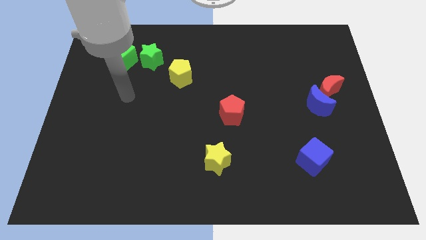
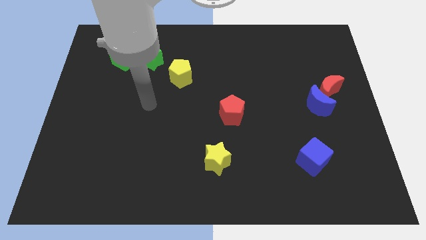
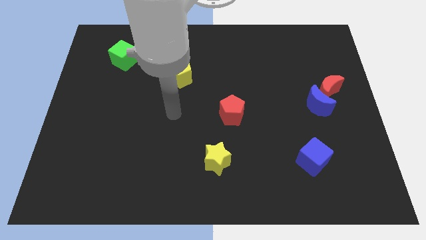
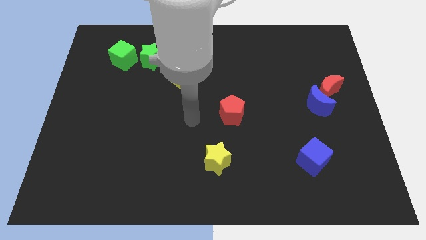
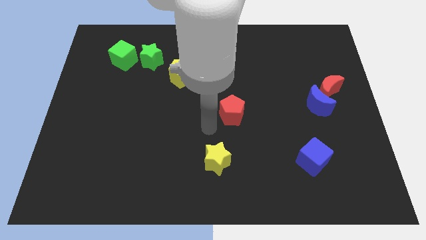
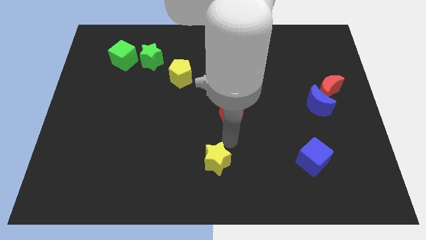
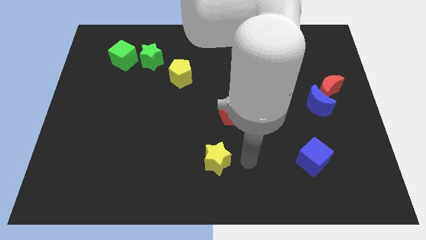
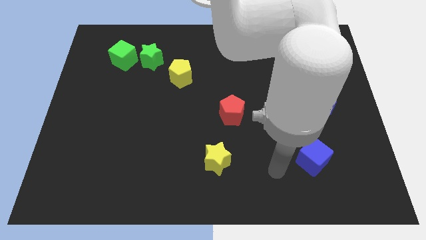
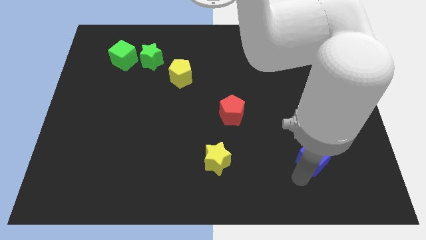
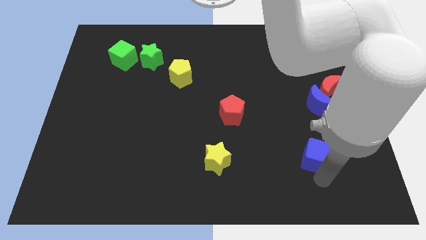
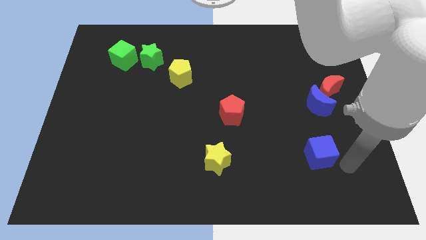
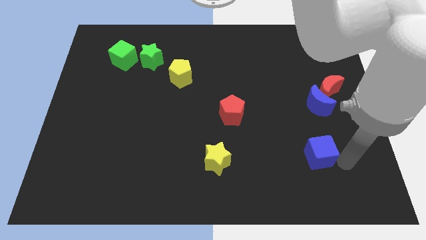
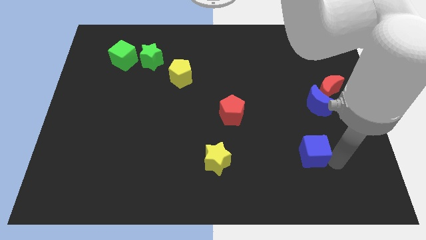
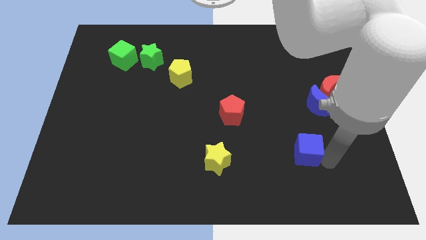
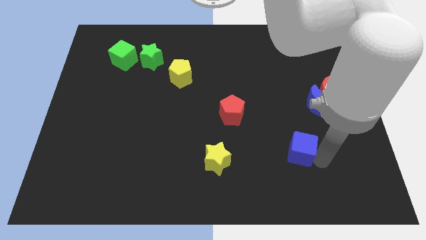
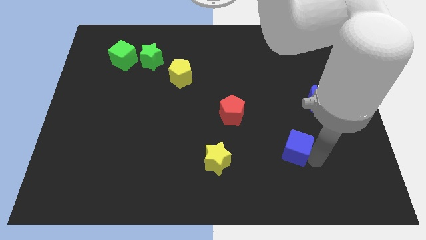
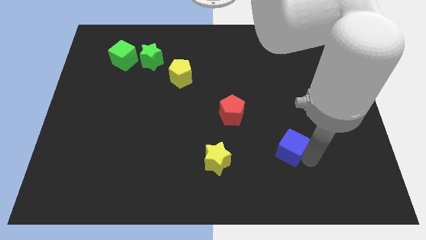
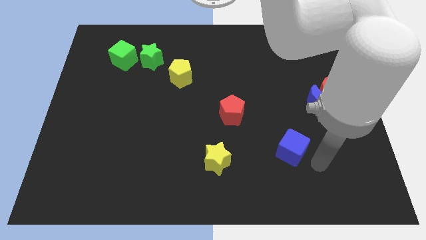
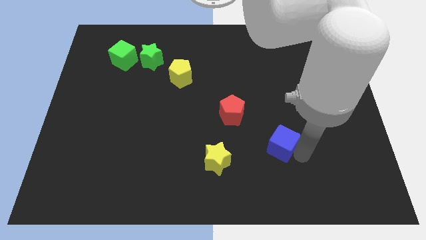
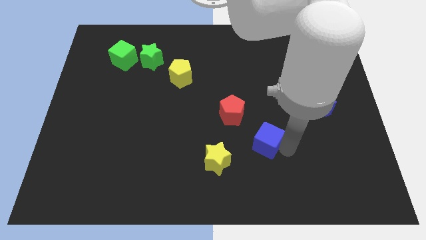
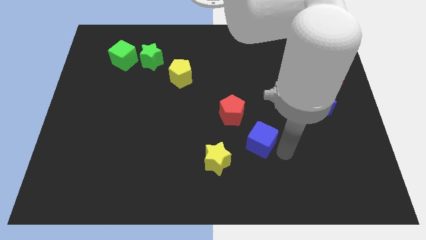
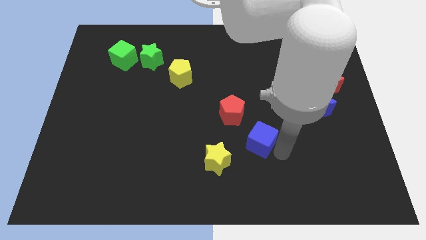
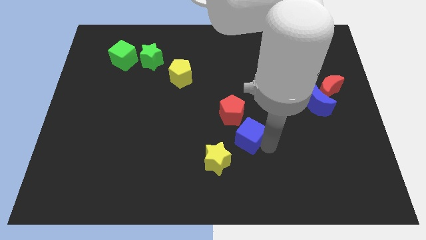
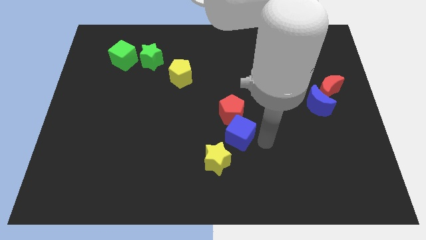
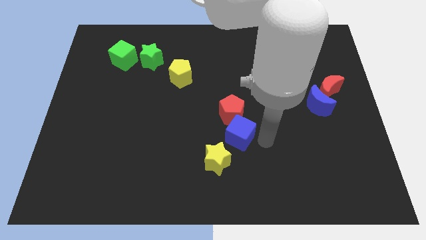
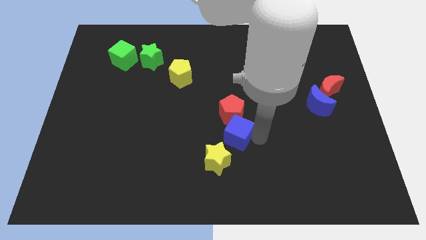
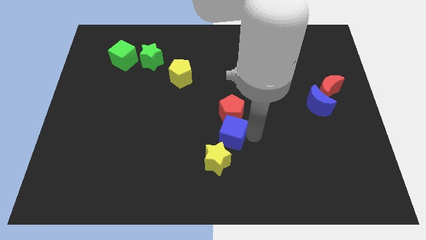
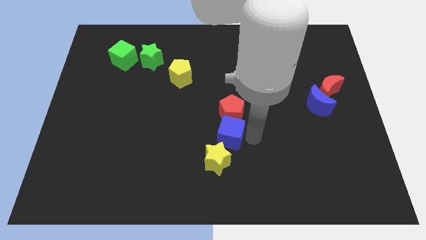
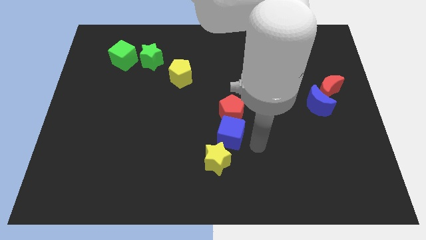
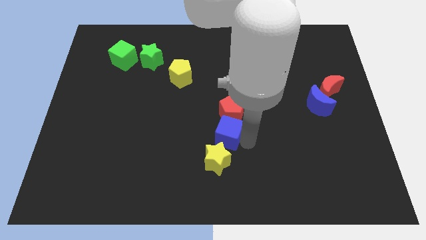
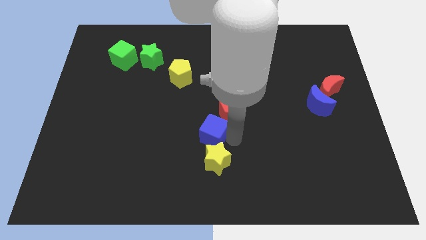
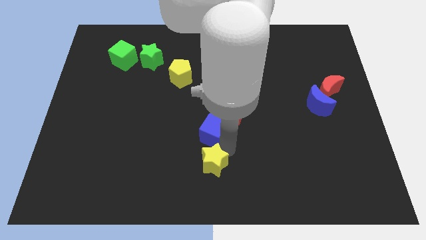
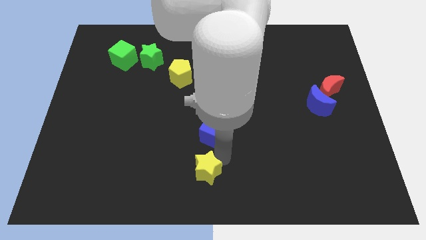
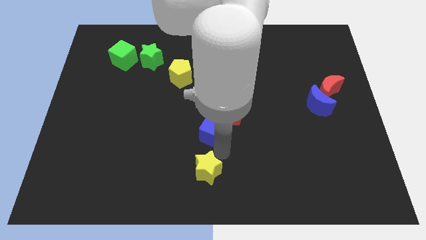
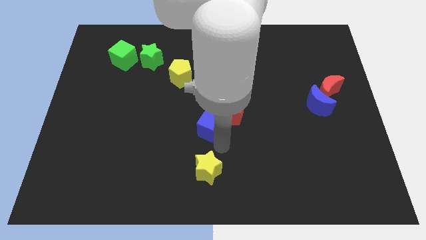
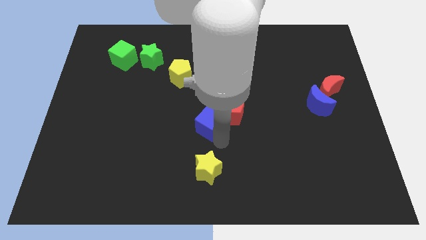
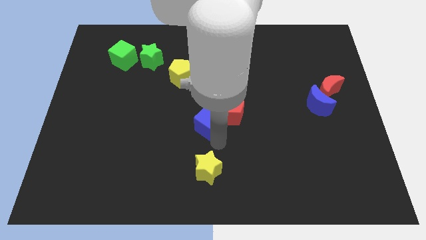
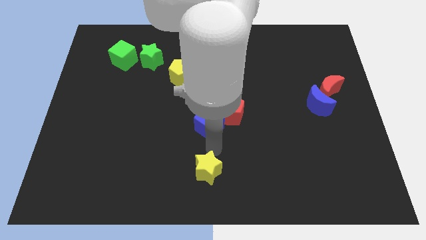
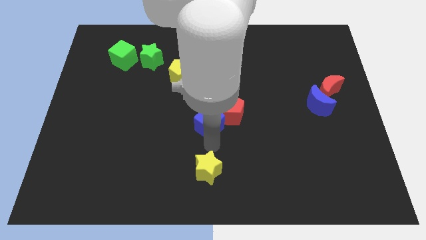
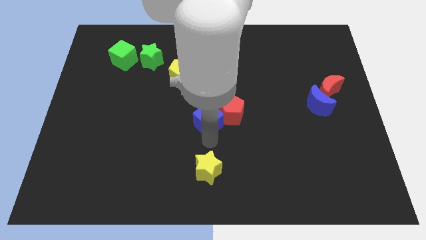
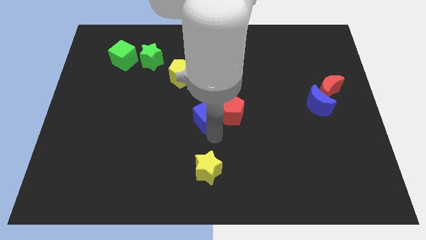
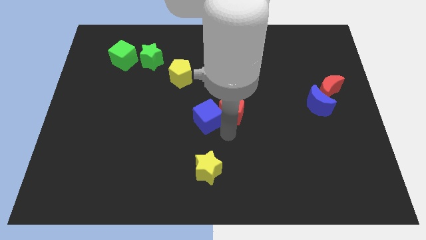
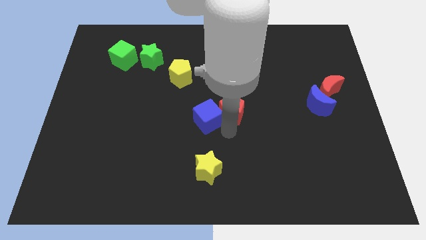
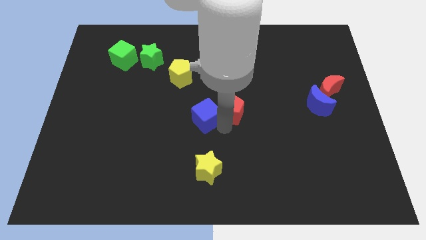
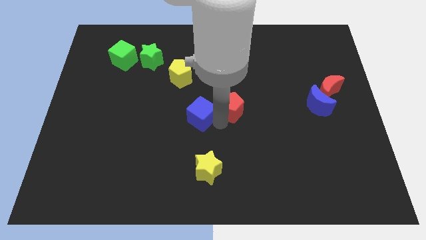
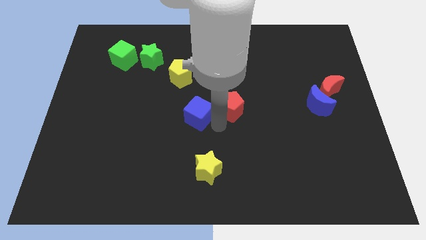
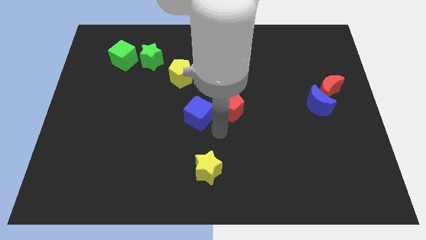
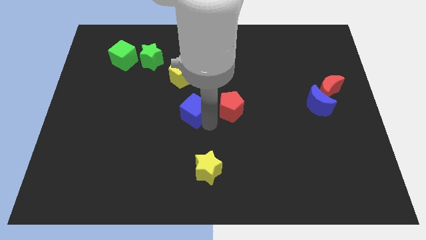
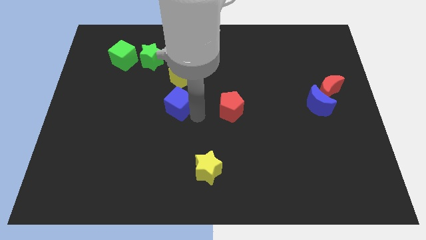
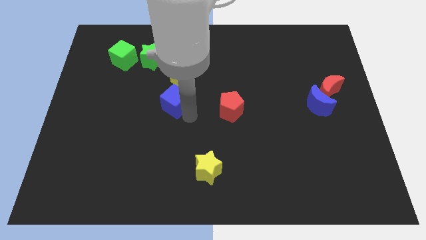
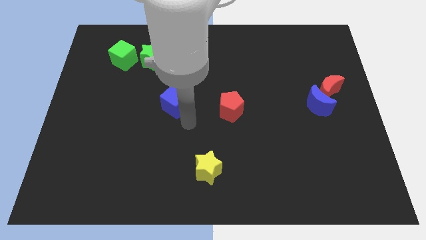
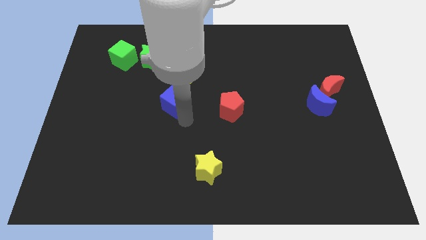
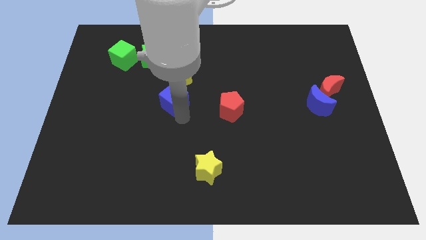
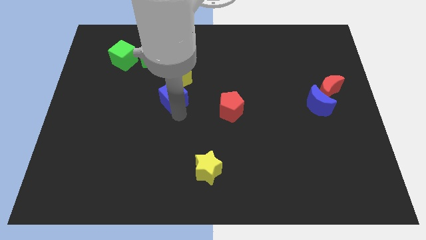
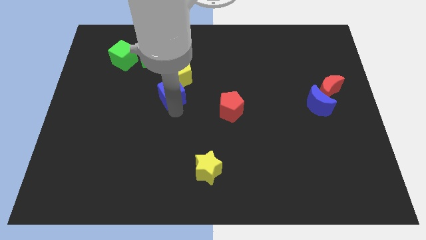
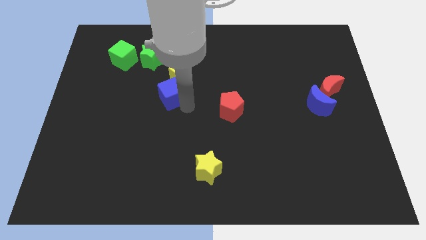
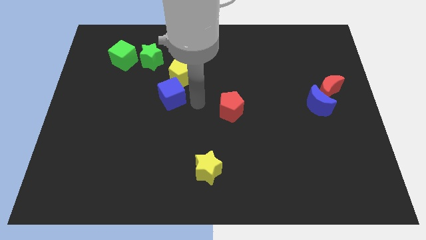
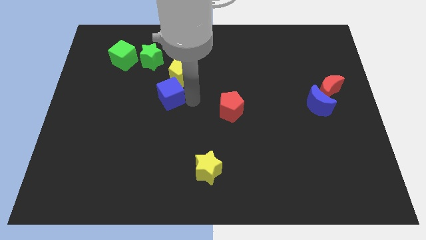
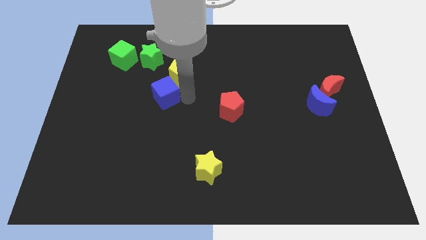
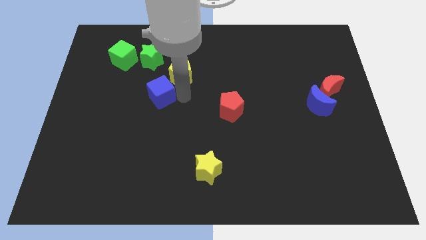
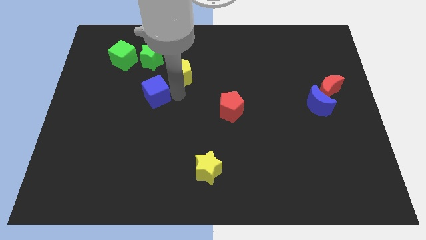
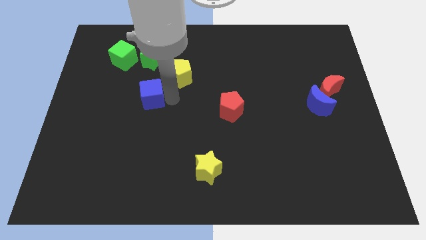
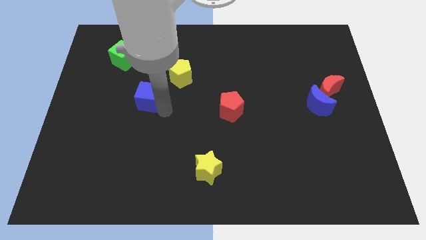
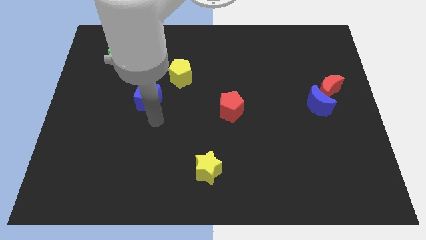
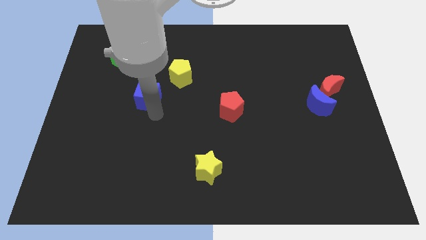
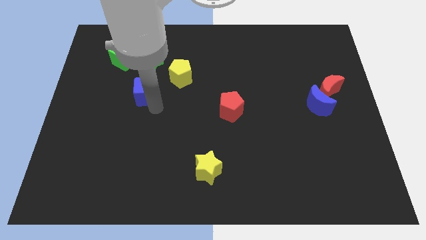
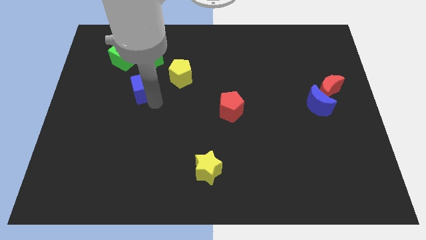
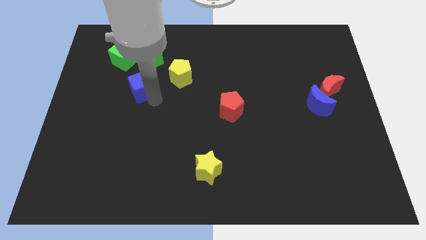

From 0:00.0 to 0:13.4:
move the blue cube to the bottom right side of the green cube

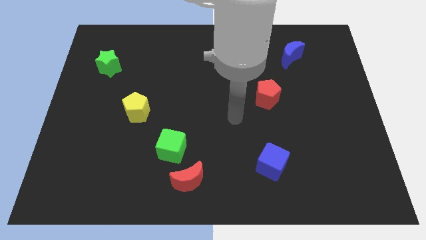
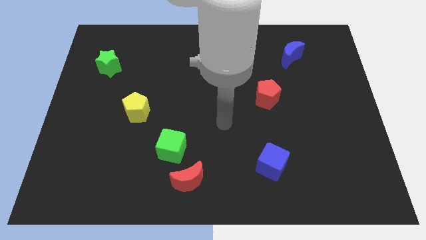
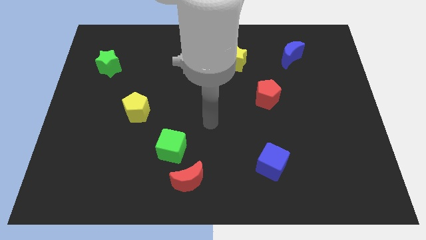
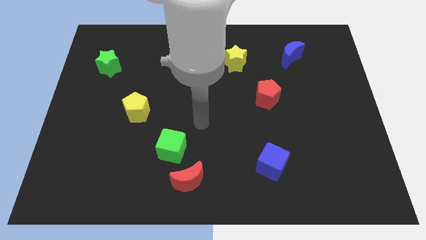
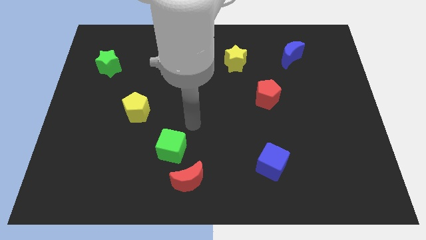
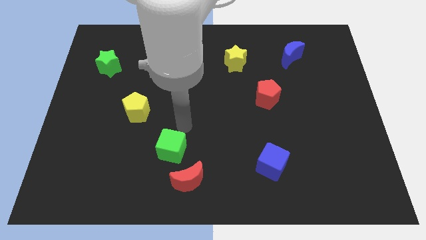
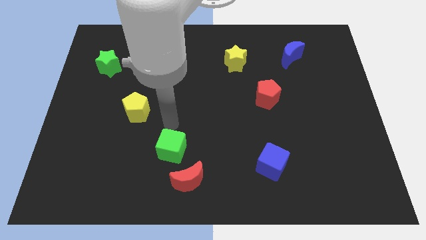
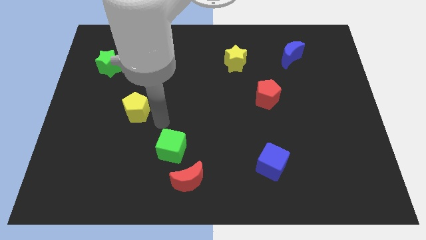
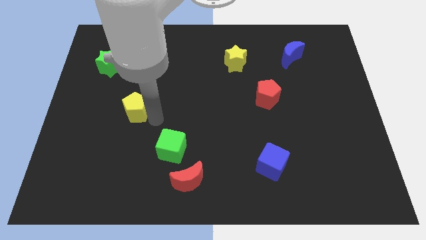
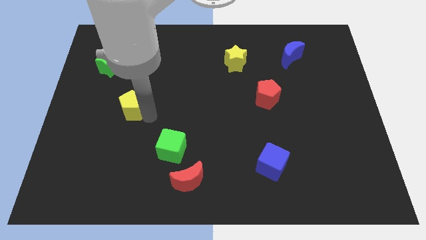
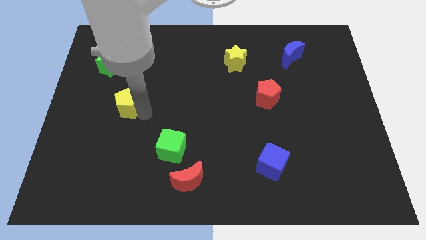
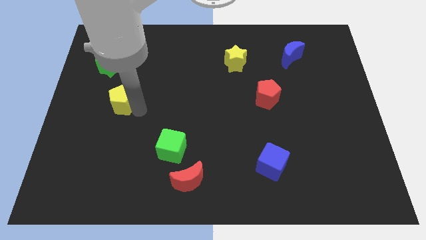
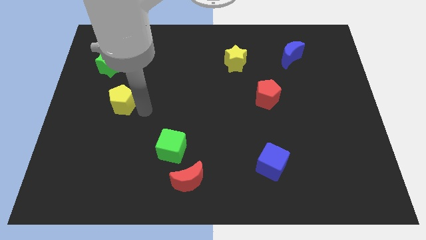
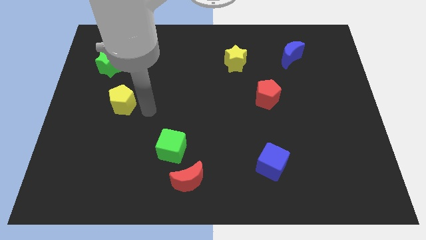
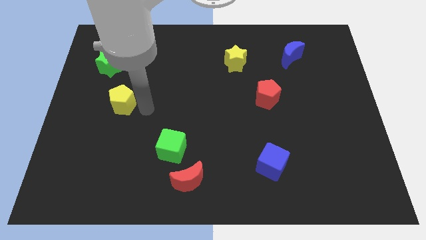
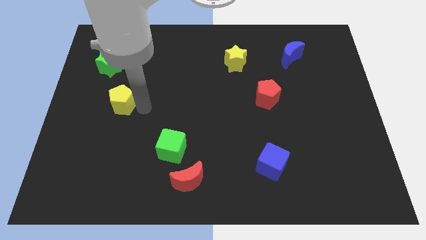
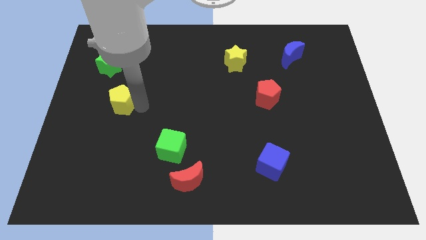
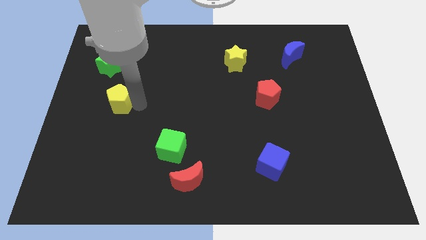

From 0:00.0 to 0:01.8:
put the yellow pentagon below the green star
